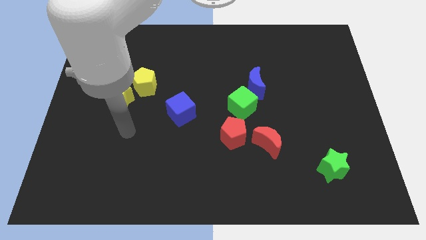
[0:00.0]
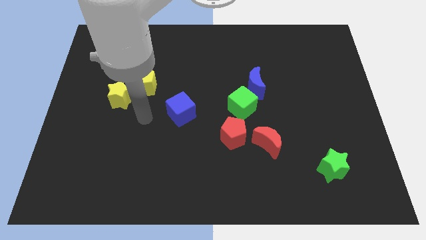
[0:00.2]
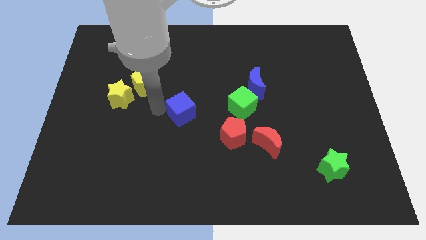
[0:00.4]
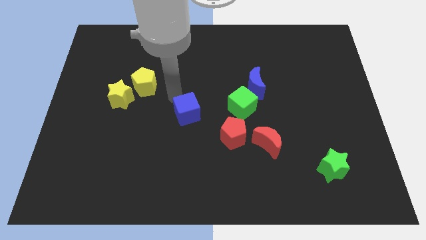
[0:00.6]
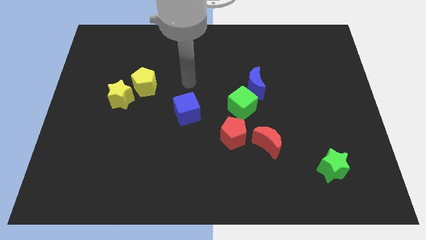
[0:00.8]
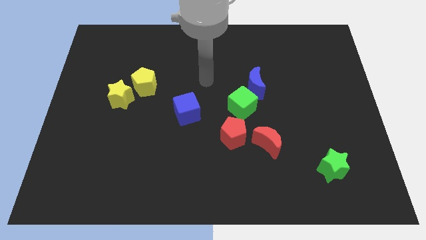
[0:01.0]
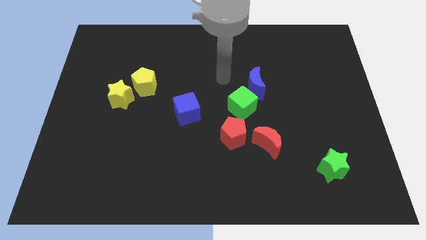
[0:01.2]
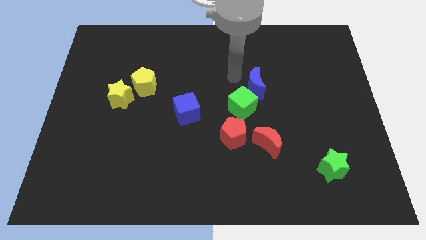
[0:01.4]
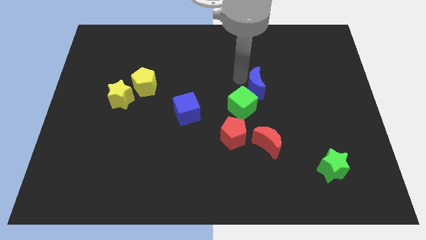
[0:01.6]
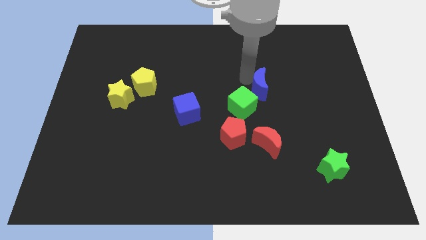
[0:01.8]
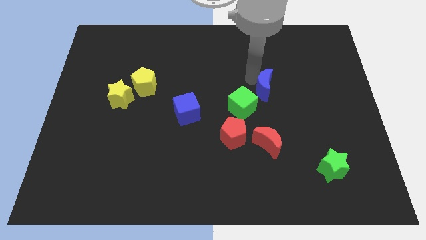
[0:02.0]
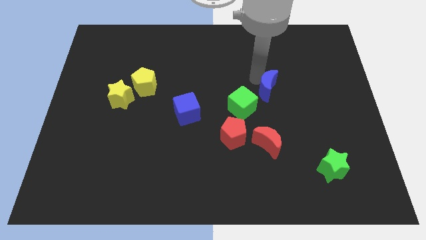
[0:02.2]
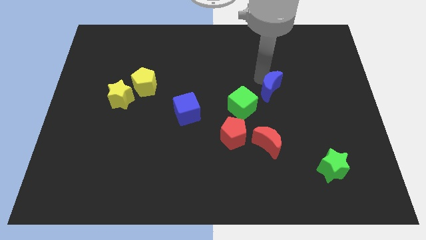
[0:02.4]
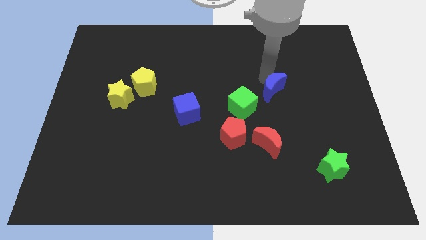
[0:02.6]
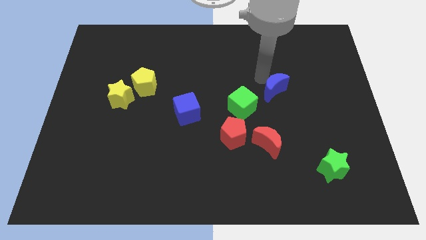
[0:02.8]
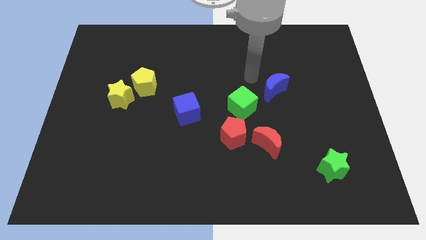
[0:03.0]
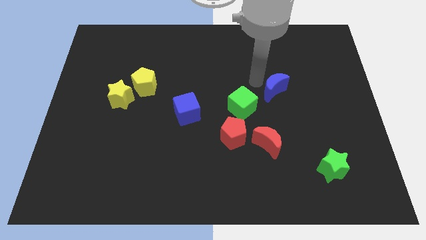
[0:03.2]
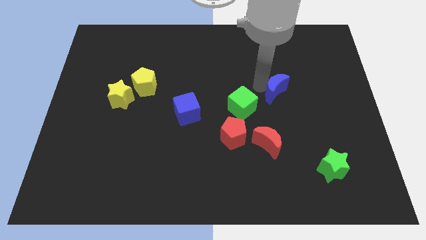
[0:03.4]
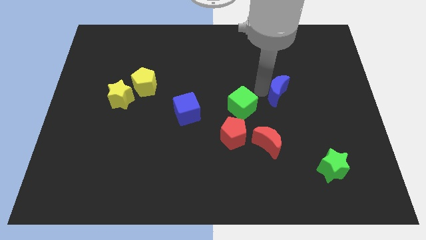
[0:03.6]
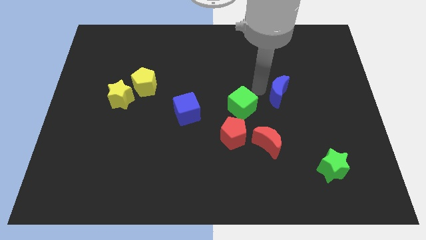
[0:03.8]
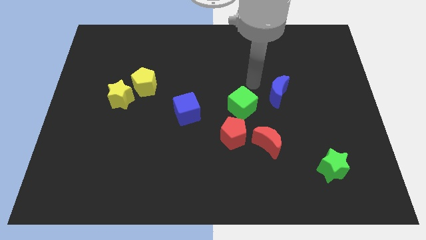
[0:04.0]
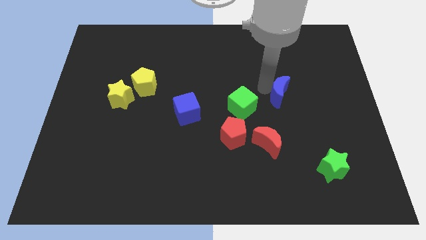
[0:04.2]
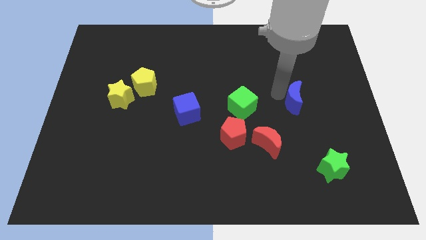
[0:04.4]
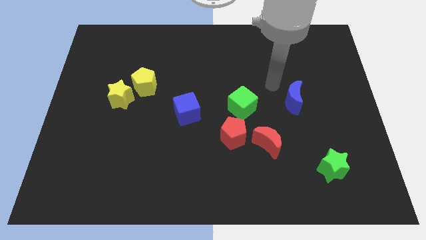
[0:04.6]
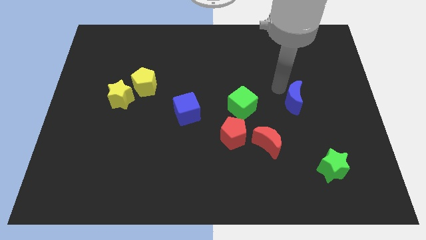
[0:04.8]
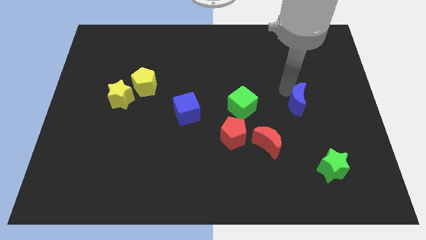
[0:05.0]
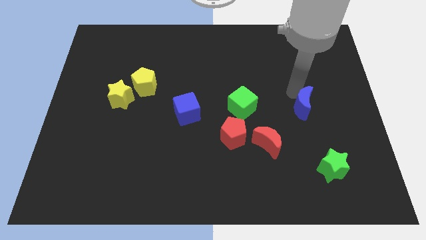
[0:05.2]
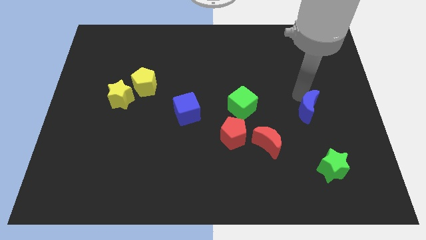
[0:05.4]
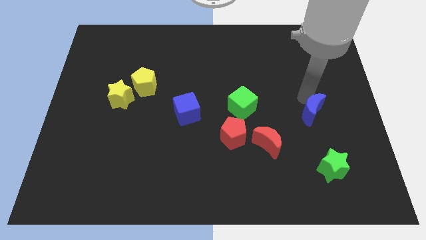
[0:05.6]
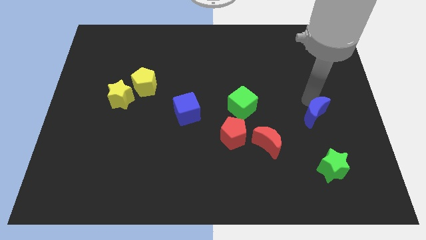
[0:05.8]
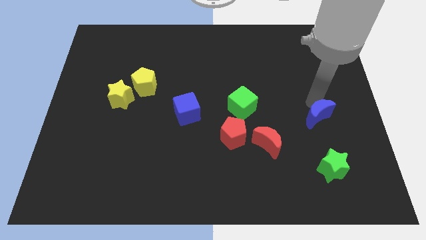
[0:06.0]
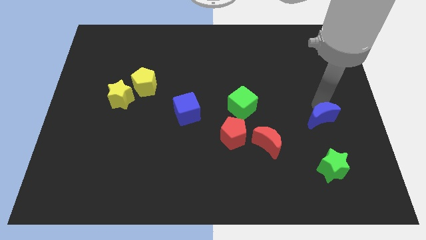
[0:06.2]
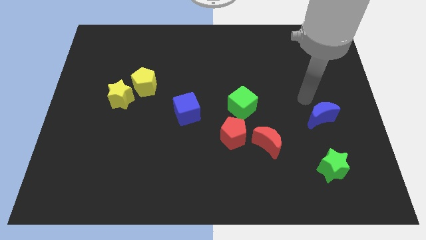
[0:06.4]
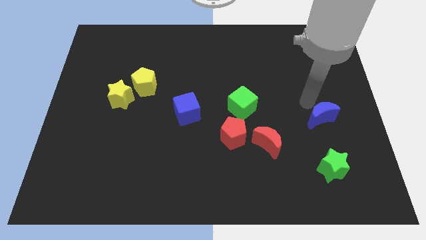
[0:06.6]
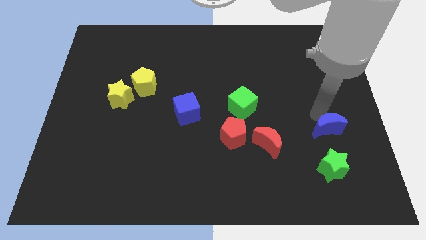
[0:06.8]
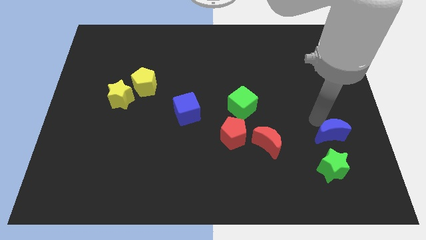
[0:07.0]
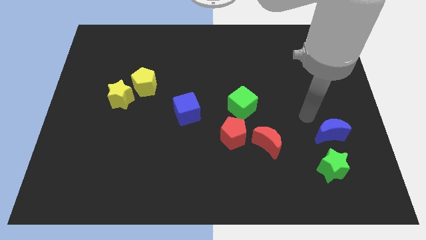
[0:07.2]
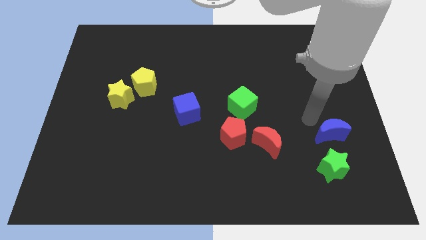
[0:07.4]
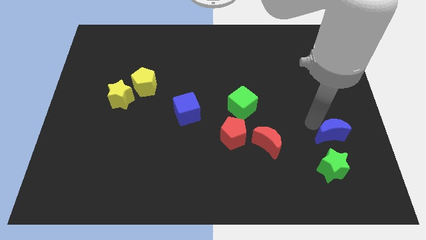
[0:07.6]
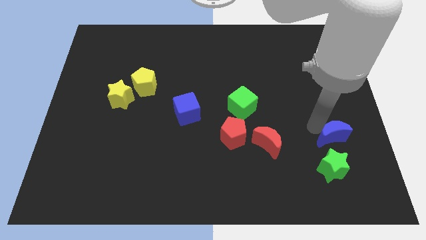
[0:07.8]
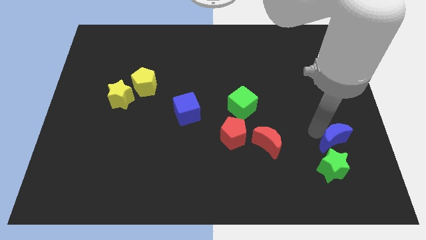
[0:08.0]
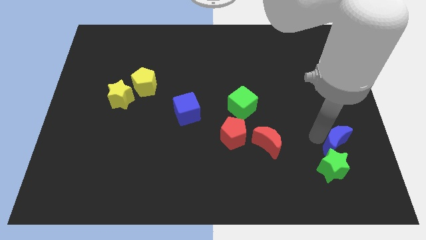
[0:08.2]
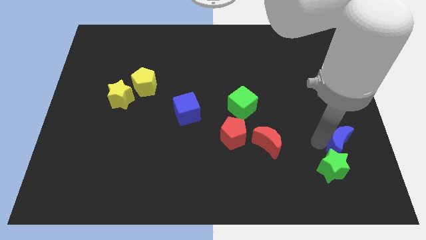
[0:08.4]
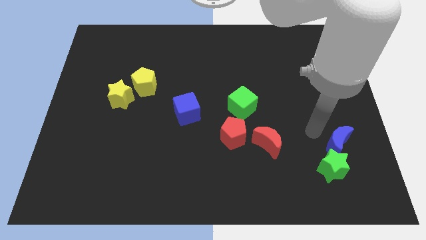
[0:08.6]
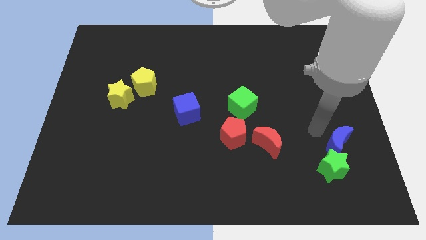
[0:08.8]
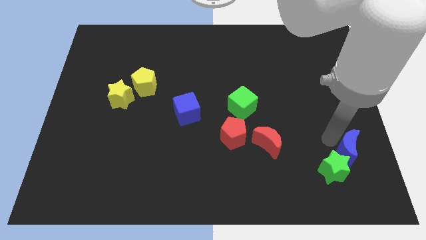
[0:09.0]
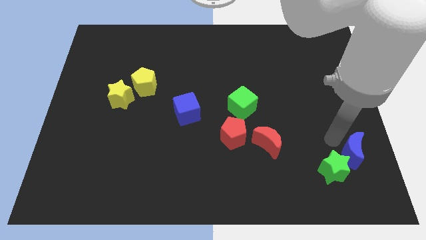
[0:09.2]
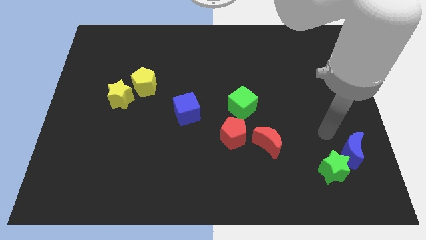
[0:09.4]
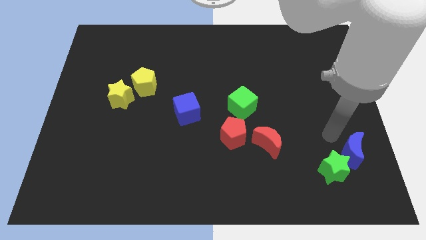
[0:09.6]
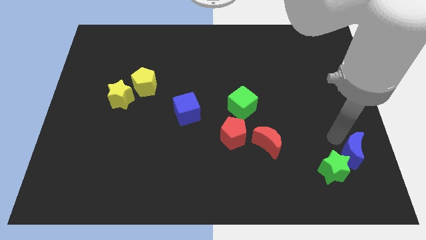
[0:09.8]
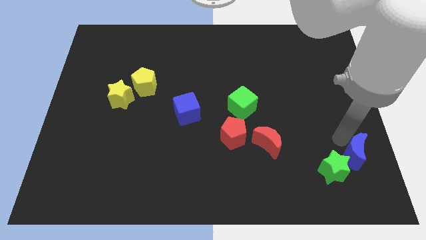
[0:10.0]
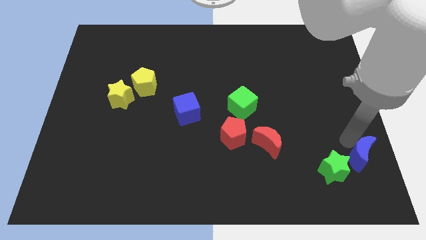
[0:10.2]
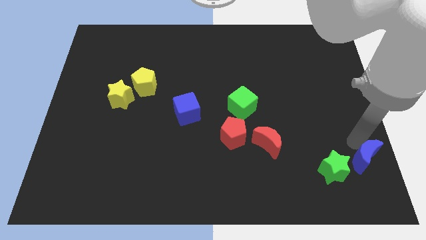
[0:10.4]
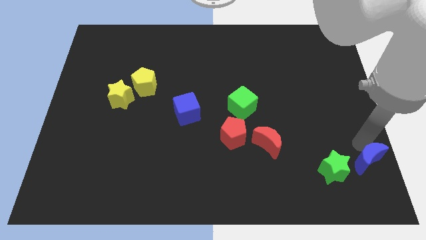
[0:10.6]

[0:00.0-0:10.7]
put the blue moon to the bottom right of the board

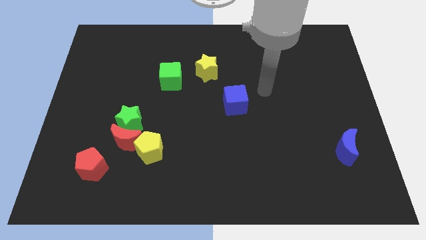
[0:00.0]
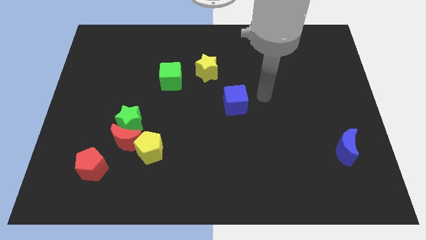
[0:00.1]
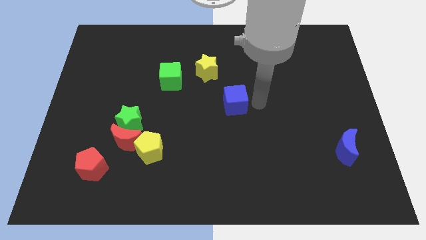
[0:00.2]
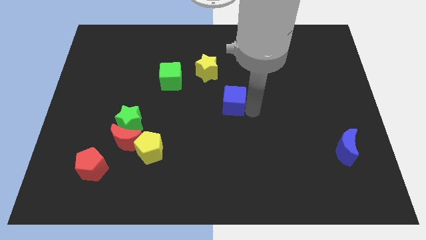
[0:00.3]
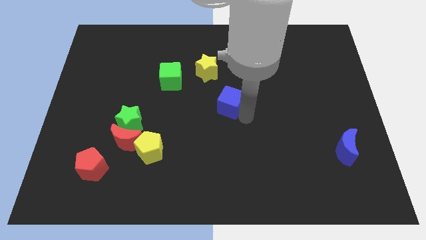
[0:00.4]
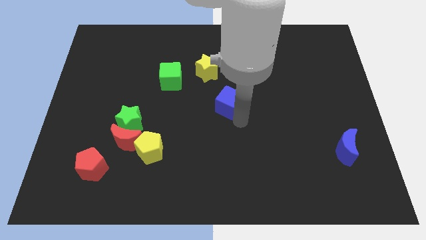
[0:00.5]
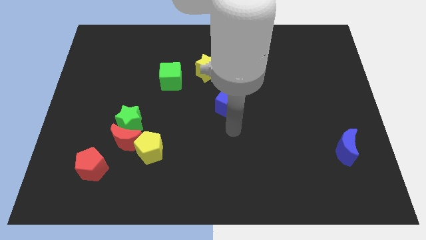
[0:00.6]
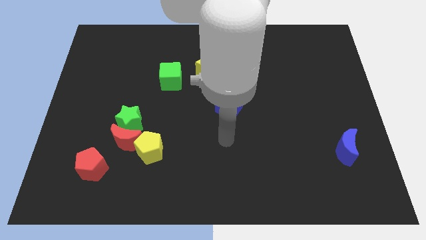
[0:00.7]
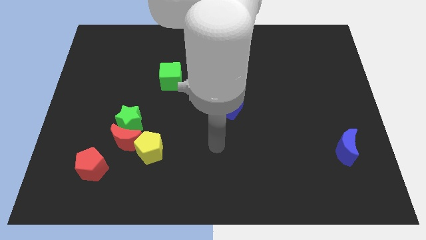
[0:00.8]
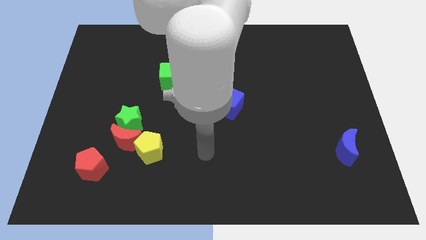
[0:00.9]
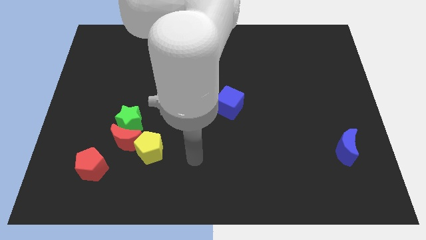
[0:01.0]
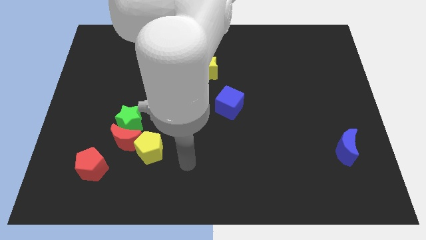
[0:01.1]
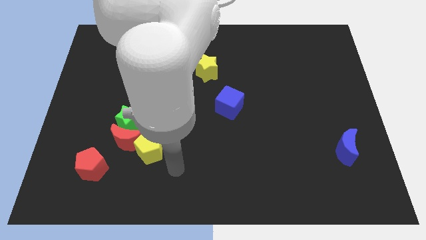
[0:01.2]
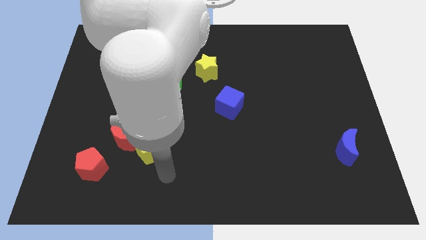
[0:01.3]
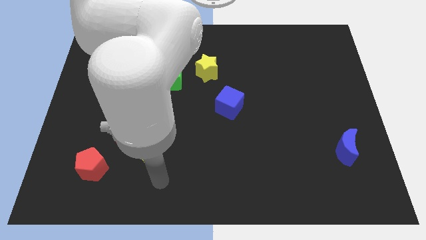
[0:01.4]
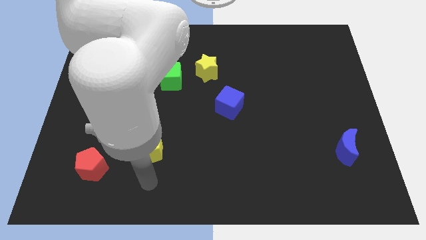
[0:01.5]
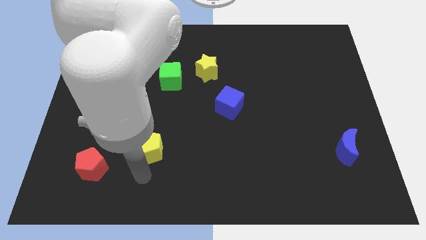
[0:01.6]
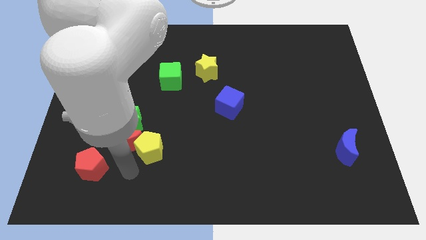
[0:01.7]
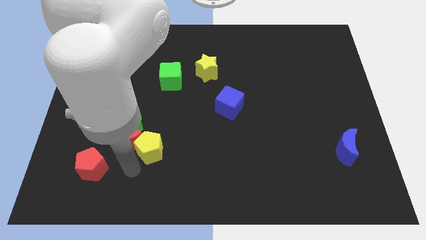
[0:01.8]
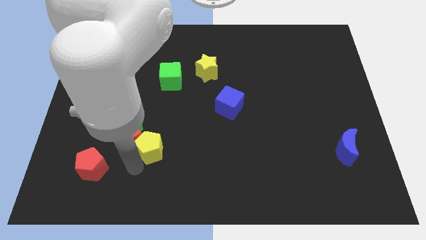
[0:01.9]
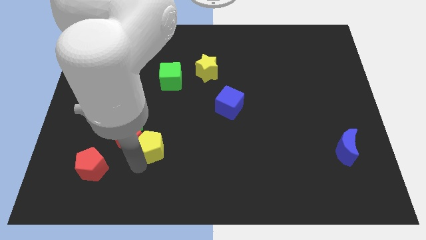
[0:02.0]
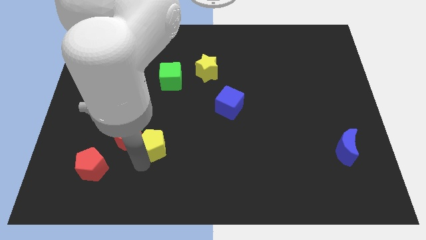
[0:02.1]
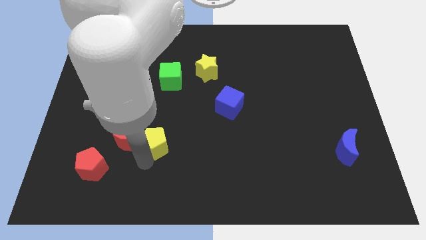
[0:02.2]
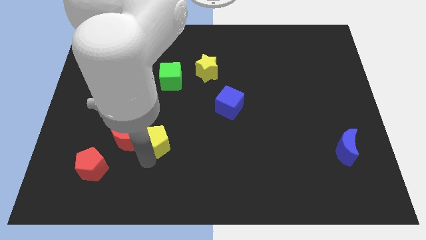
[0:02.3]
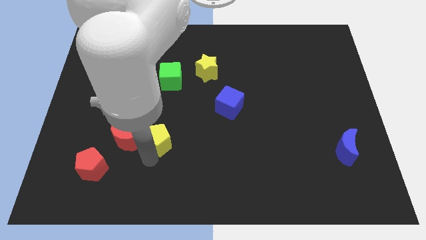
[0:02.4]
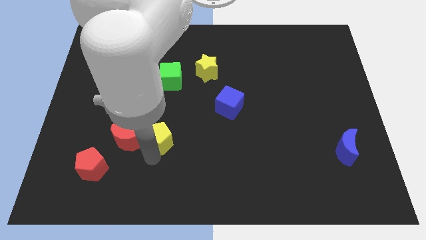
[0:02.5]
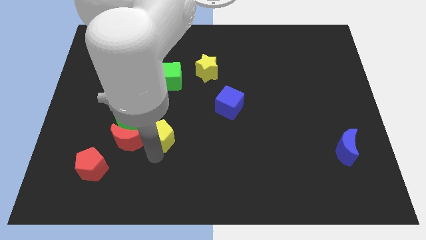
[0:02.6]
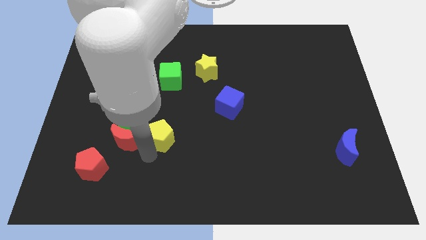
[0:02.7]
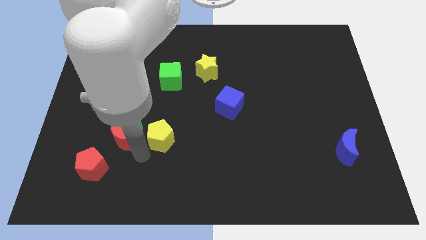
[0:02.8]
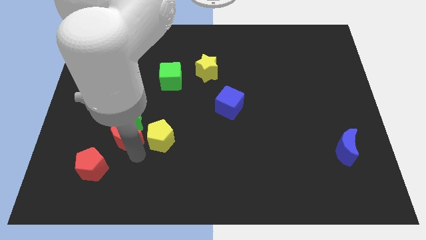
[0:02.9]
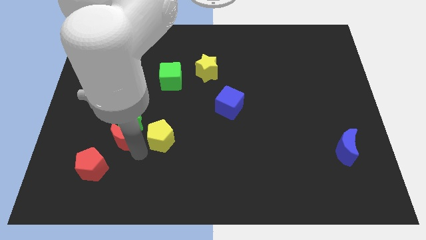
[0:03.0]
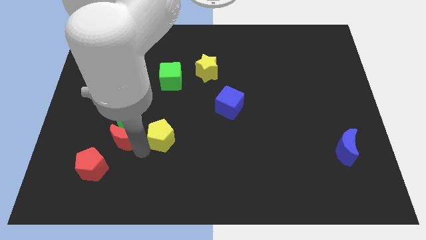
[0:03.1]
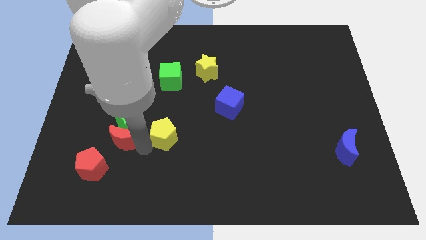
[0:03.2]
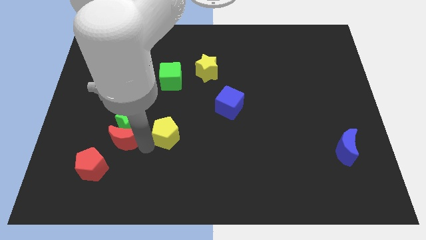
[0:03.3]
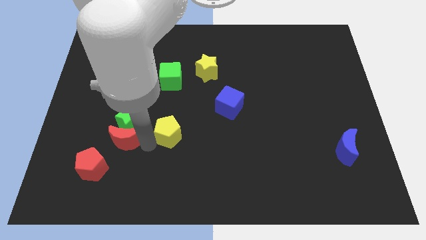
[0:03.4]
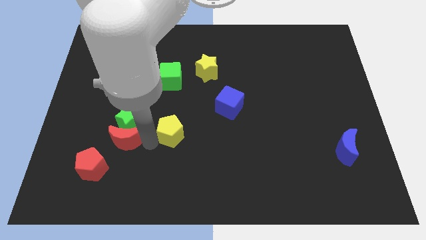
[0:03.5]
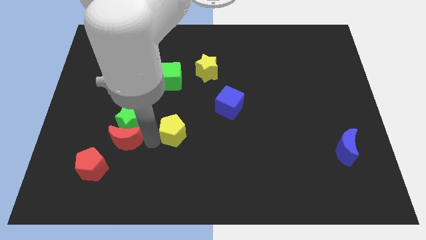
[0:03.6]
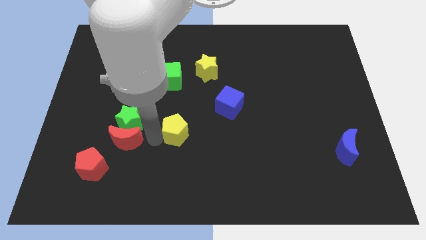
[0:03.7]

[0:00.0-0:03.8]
push the yellow pentagon to the middle of the board
